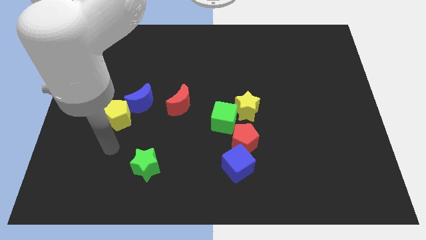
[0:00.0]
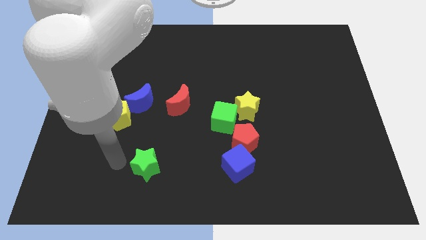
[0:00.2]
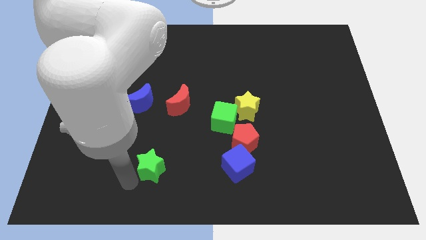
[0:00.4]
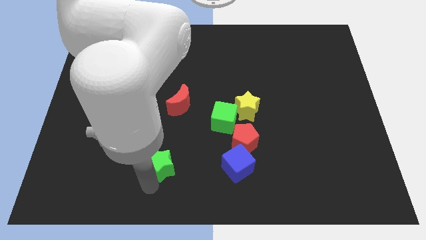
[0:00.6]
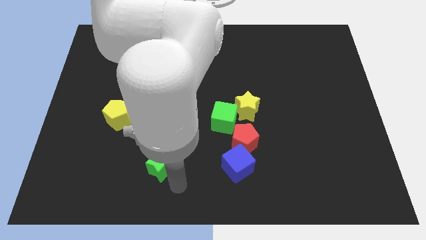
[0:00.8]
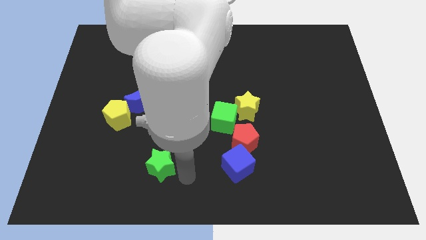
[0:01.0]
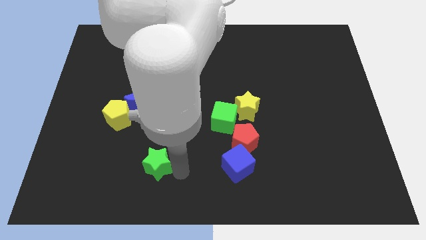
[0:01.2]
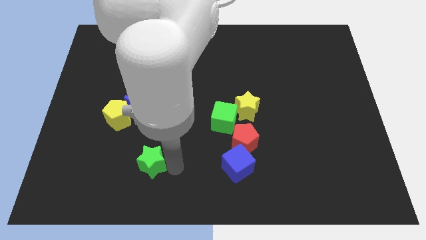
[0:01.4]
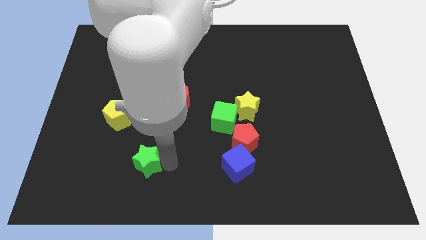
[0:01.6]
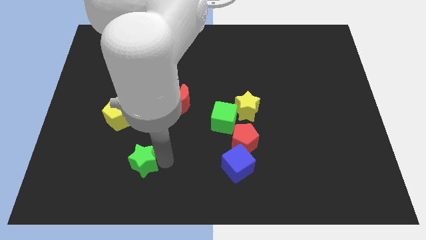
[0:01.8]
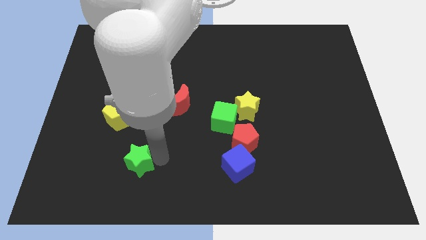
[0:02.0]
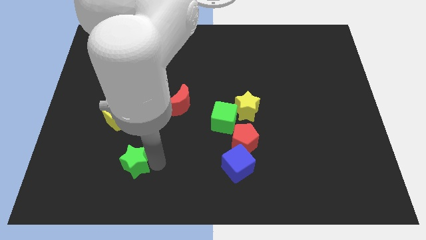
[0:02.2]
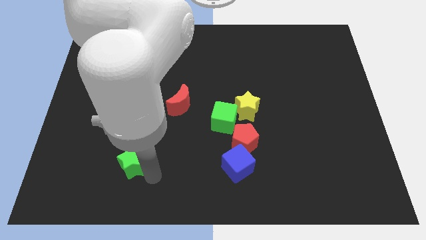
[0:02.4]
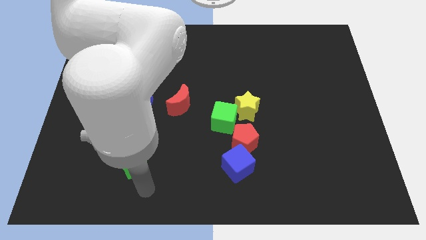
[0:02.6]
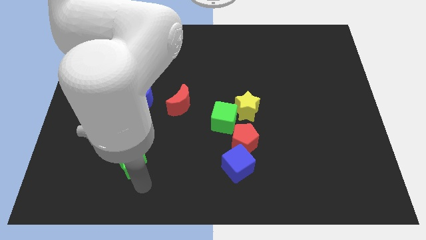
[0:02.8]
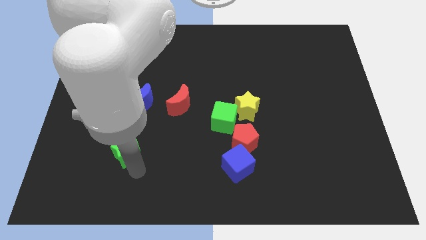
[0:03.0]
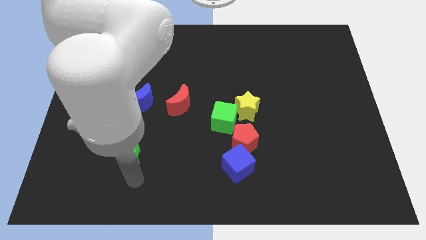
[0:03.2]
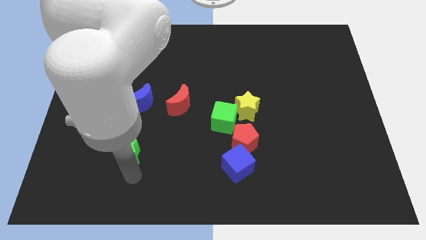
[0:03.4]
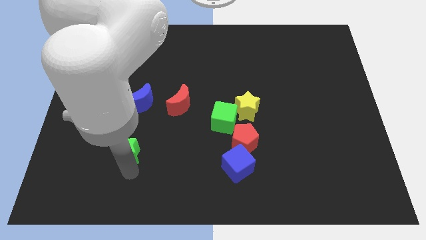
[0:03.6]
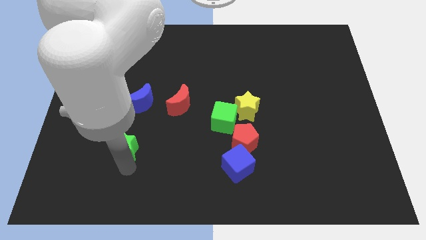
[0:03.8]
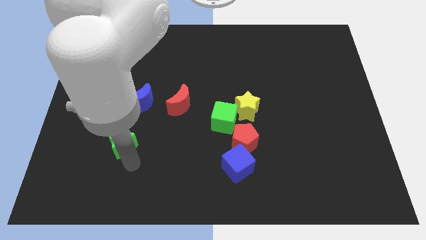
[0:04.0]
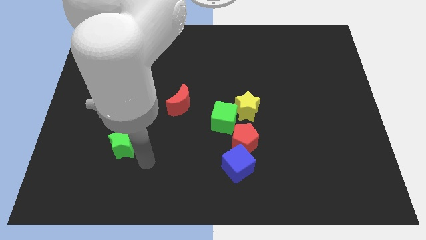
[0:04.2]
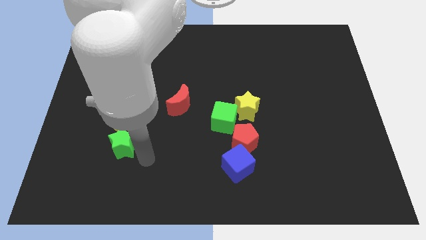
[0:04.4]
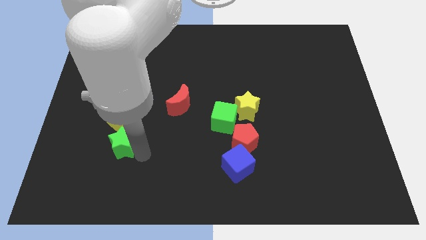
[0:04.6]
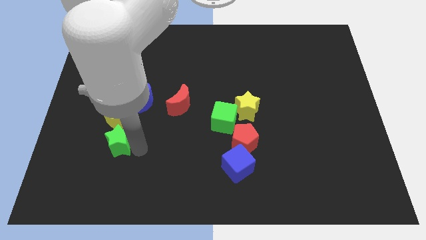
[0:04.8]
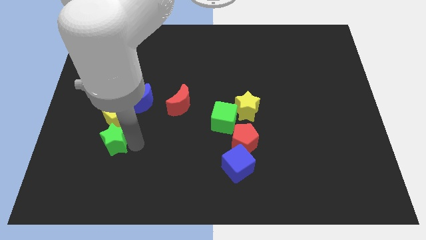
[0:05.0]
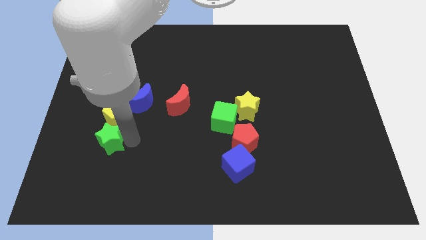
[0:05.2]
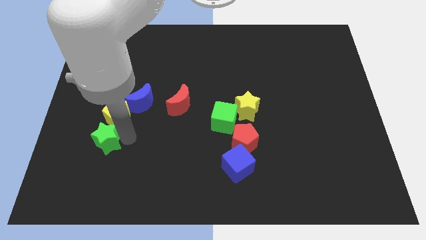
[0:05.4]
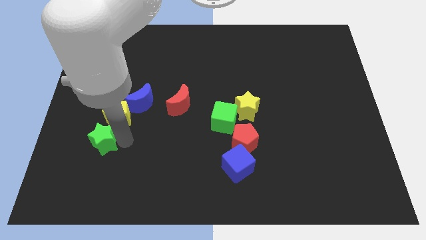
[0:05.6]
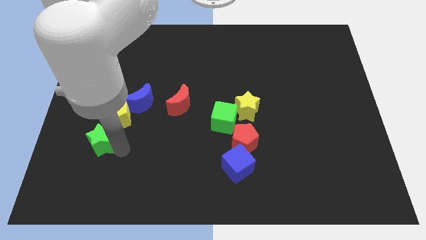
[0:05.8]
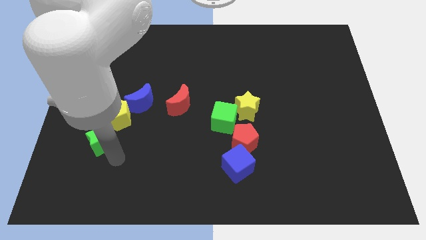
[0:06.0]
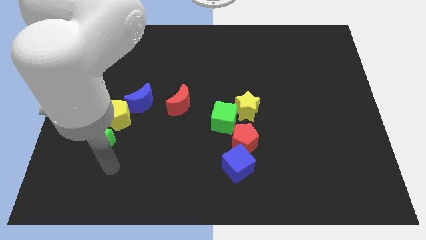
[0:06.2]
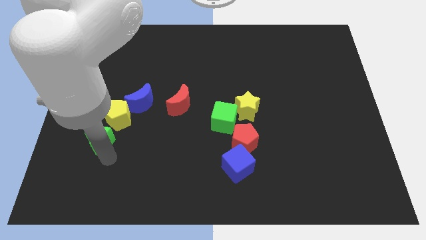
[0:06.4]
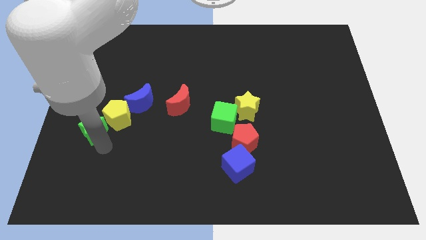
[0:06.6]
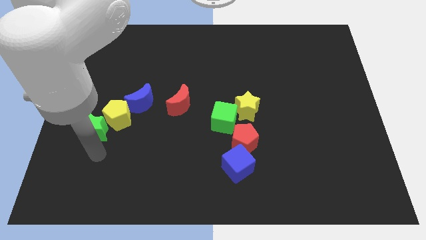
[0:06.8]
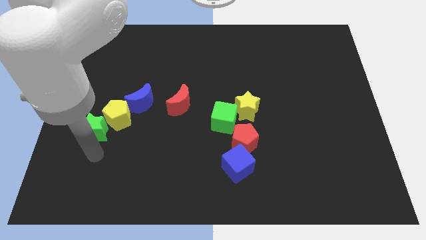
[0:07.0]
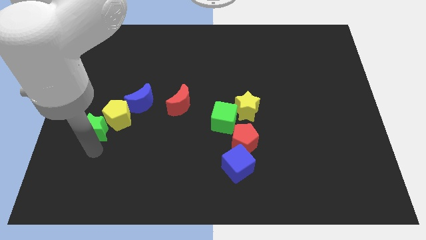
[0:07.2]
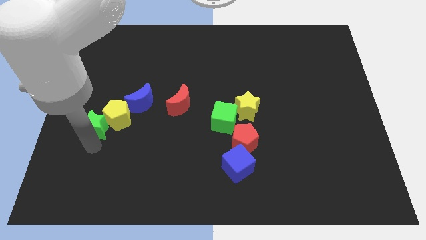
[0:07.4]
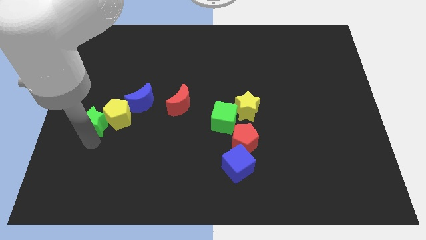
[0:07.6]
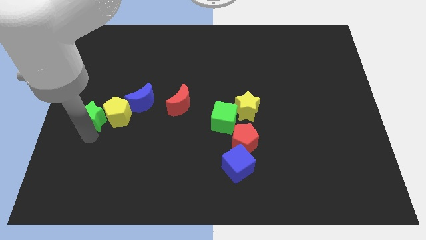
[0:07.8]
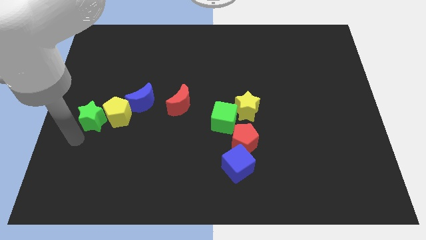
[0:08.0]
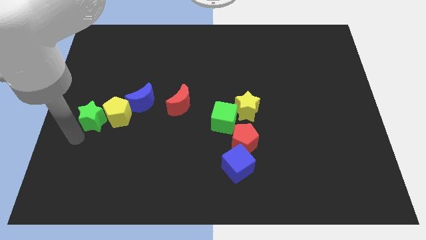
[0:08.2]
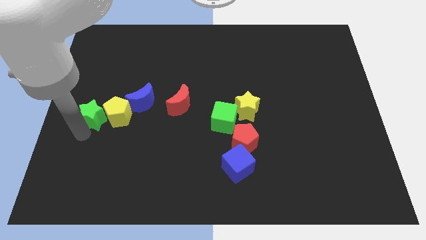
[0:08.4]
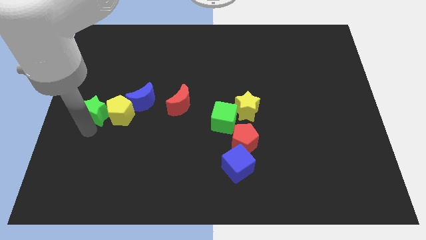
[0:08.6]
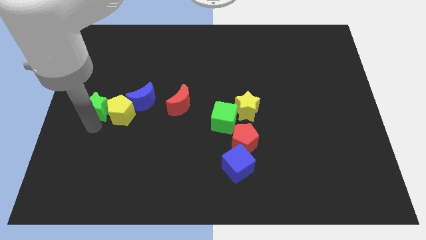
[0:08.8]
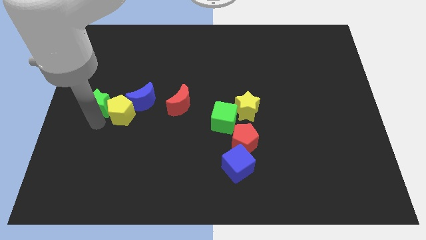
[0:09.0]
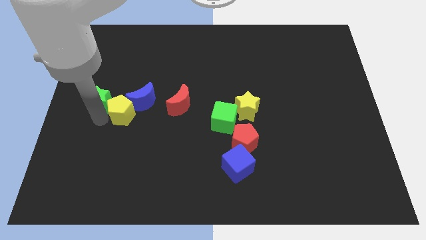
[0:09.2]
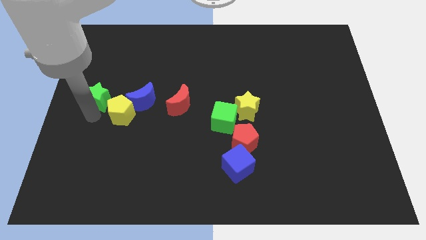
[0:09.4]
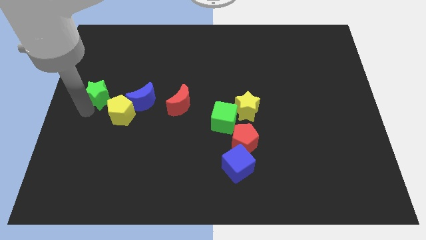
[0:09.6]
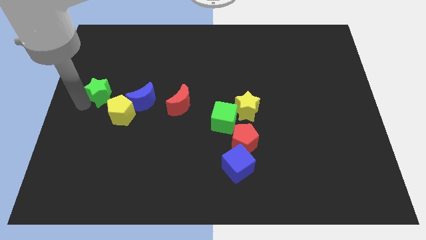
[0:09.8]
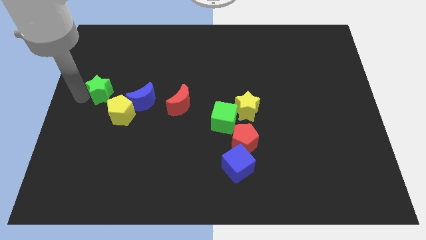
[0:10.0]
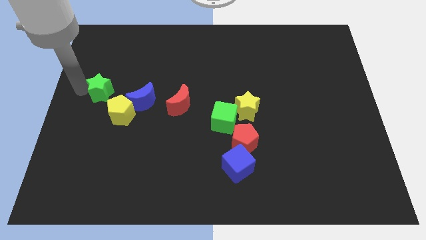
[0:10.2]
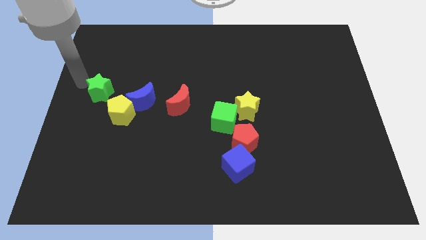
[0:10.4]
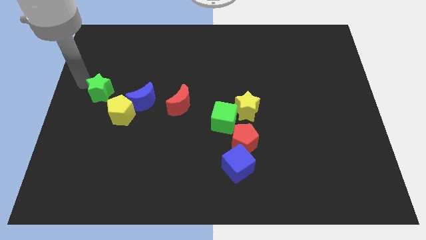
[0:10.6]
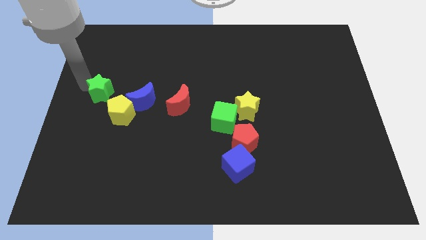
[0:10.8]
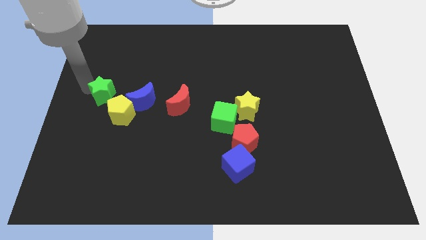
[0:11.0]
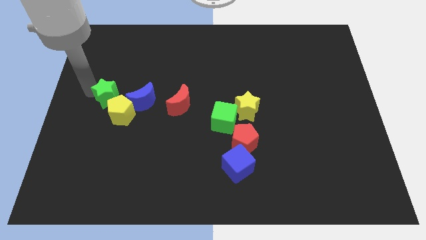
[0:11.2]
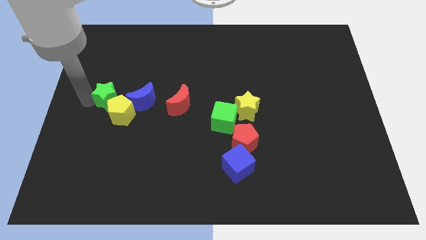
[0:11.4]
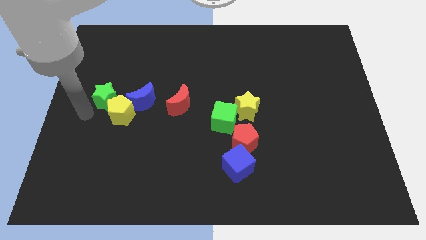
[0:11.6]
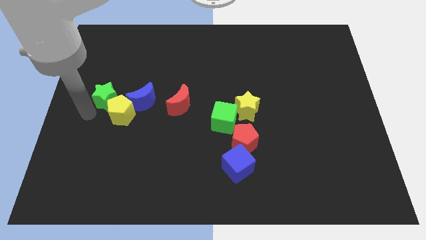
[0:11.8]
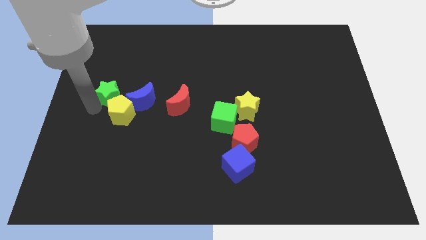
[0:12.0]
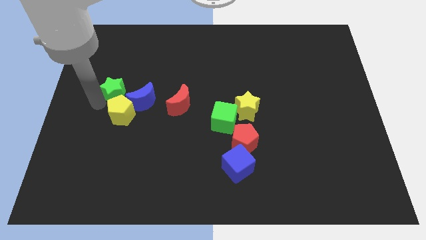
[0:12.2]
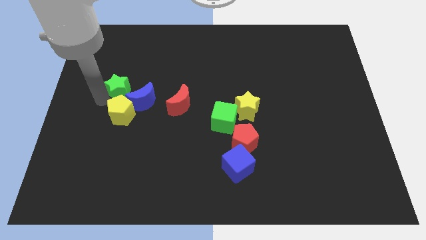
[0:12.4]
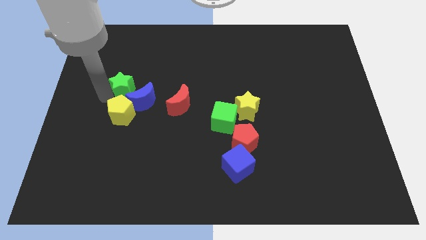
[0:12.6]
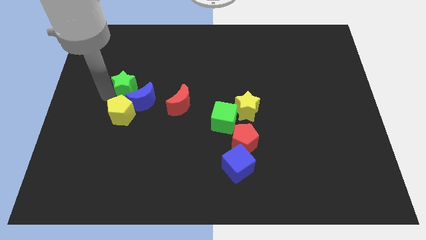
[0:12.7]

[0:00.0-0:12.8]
move the green star to the top of the blue moon

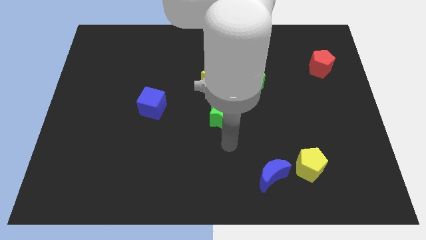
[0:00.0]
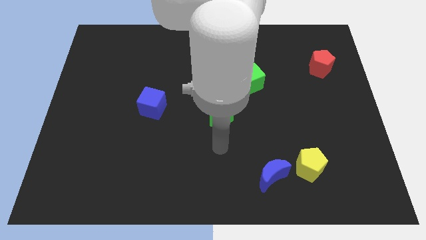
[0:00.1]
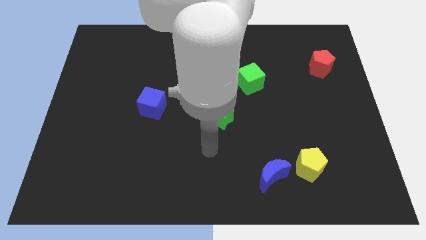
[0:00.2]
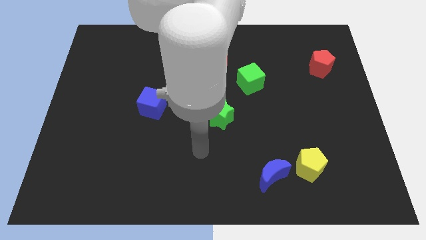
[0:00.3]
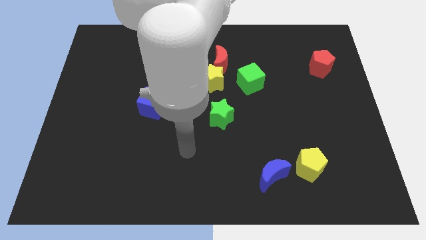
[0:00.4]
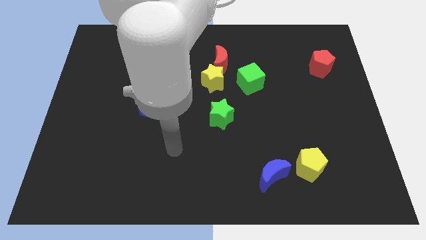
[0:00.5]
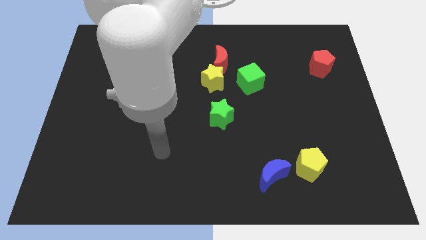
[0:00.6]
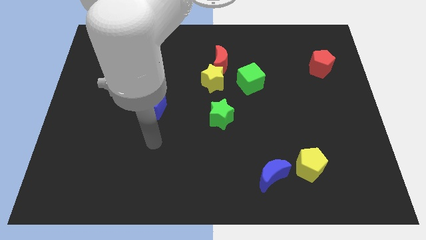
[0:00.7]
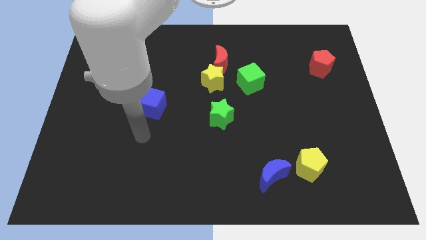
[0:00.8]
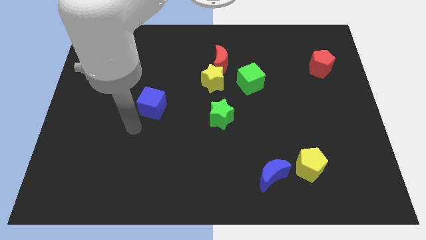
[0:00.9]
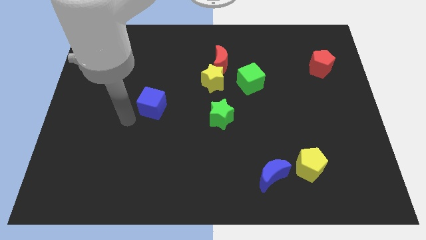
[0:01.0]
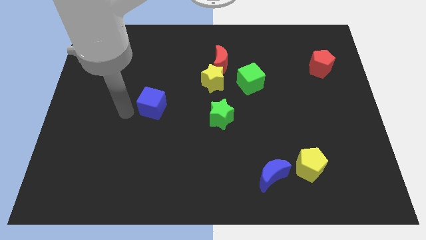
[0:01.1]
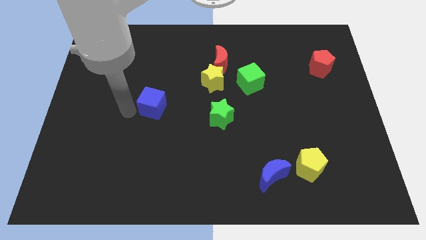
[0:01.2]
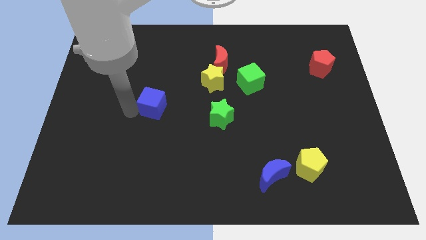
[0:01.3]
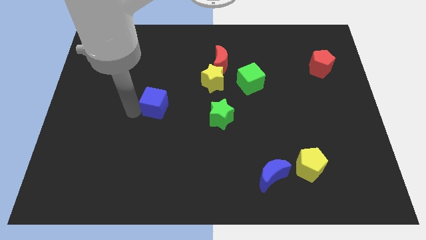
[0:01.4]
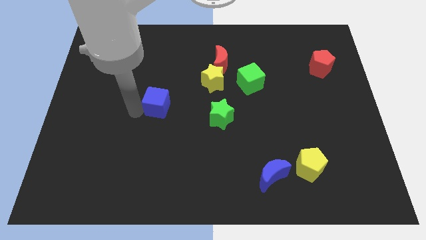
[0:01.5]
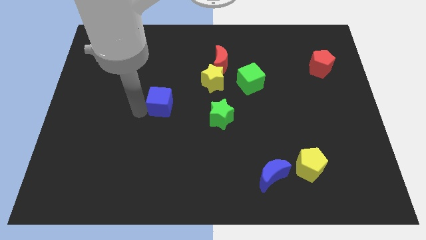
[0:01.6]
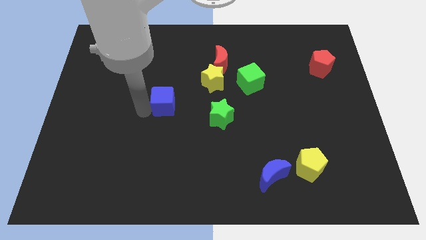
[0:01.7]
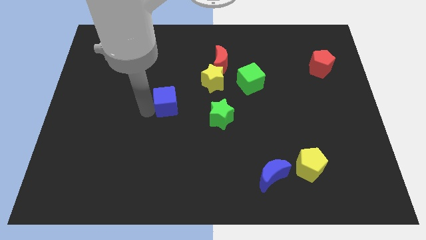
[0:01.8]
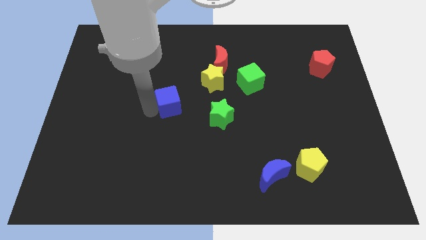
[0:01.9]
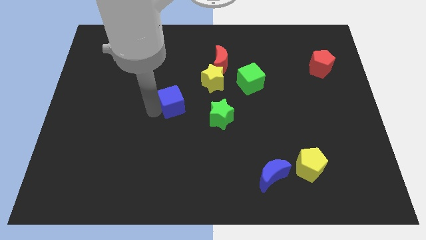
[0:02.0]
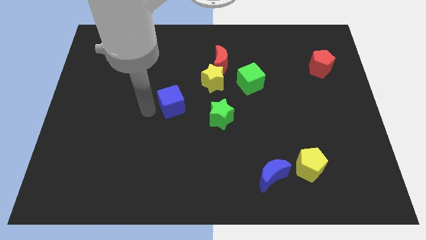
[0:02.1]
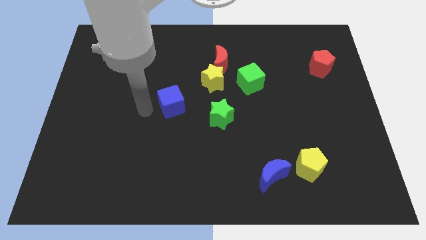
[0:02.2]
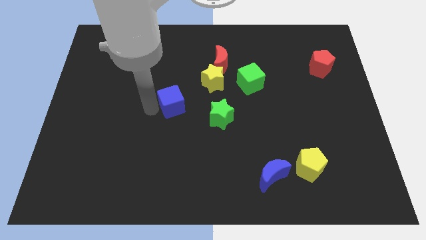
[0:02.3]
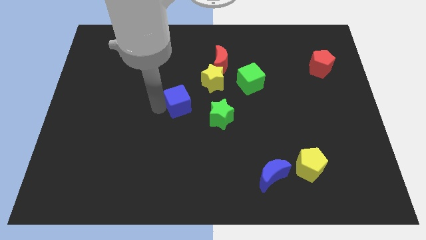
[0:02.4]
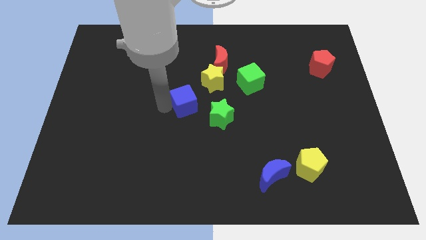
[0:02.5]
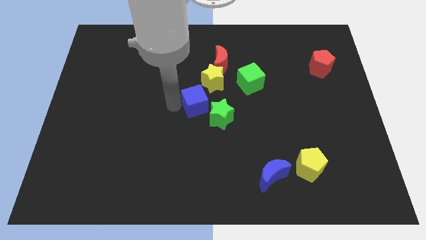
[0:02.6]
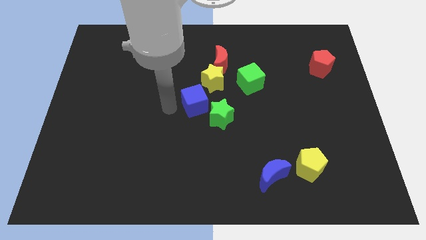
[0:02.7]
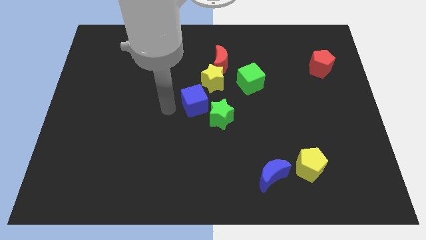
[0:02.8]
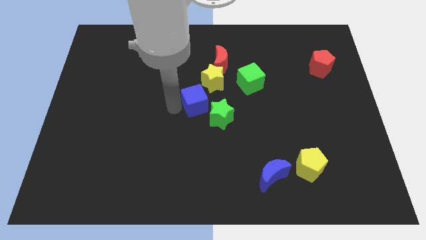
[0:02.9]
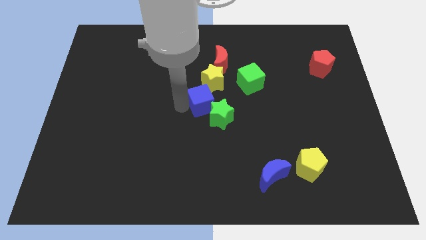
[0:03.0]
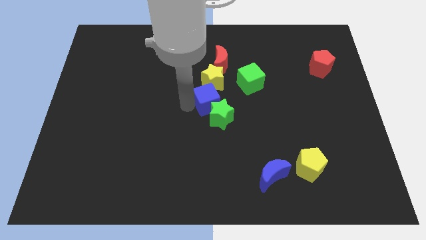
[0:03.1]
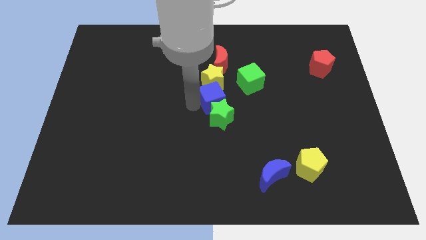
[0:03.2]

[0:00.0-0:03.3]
put the blue cube diagonally down and to the right of the yellow star
